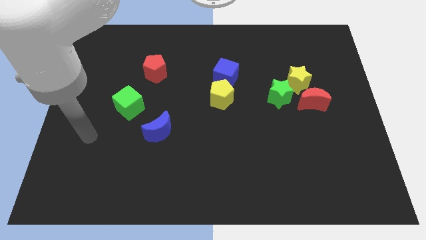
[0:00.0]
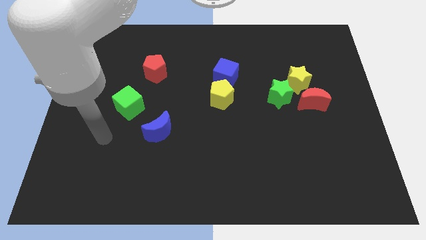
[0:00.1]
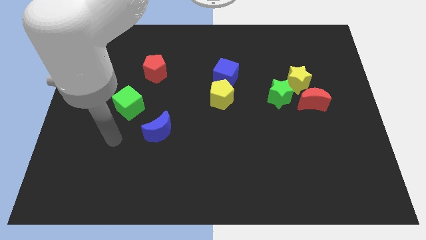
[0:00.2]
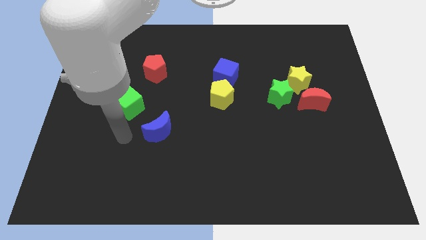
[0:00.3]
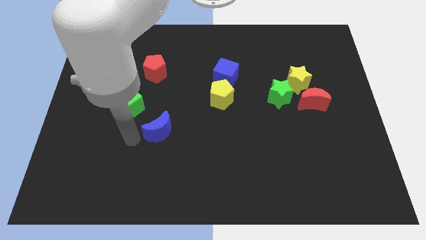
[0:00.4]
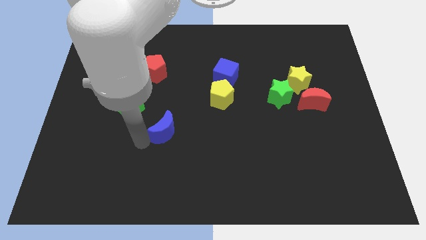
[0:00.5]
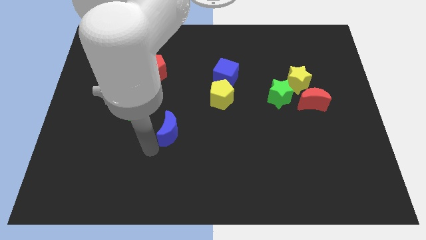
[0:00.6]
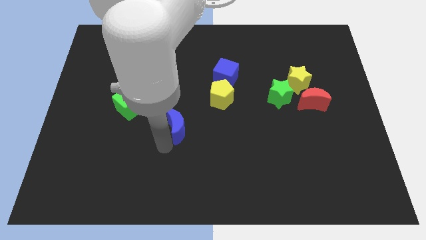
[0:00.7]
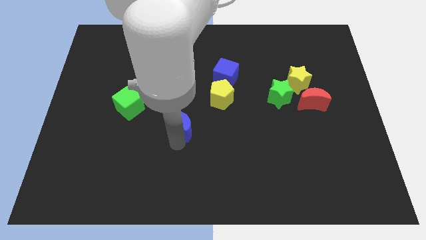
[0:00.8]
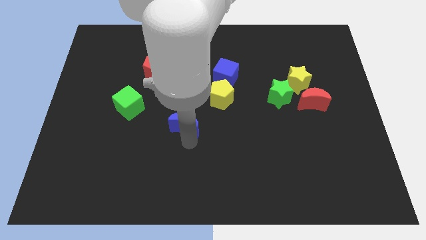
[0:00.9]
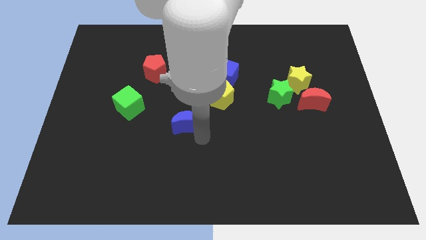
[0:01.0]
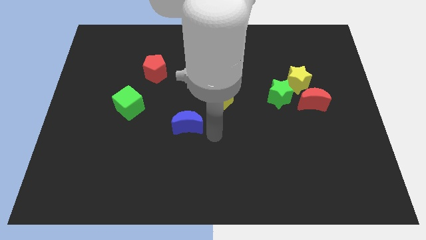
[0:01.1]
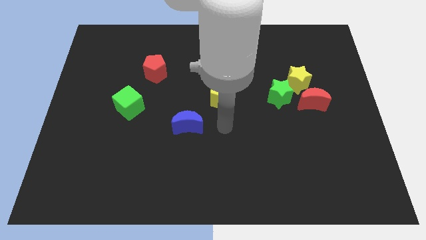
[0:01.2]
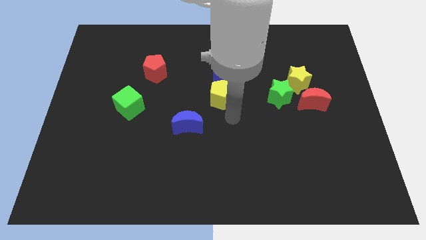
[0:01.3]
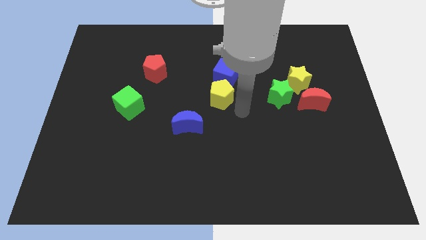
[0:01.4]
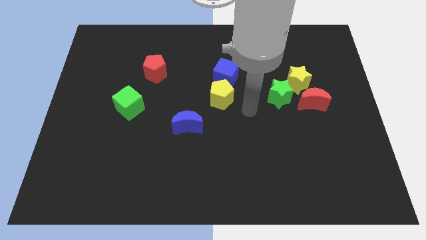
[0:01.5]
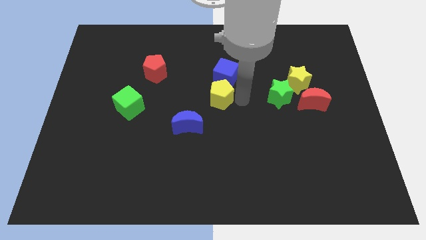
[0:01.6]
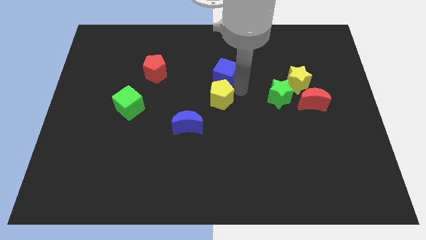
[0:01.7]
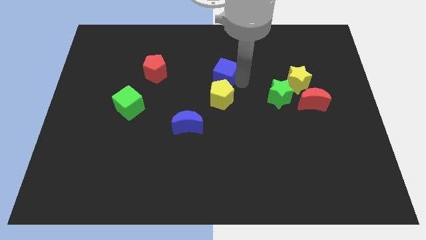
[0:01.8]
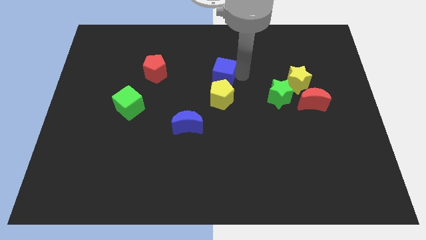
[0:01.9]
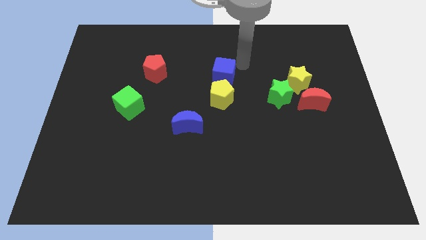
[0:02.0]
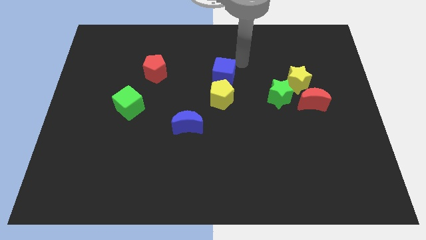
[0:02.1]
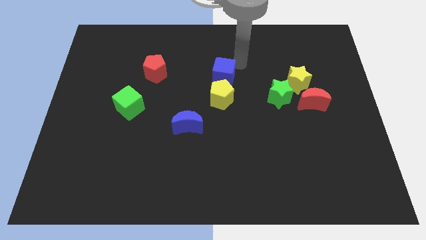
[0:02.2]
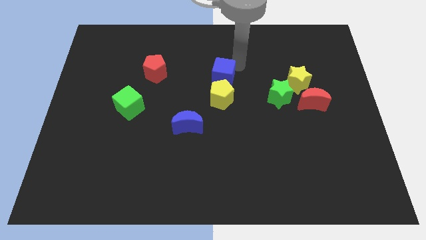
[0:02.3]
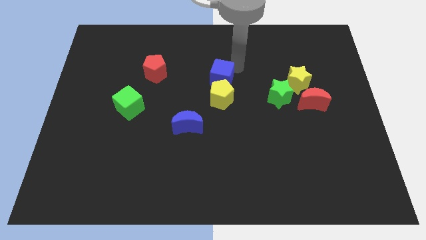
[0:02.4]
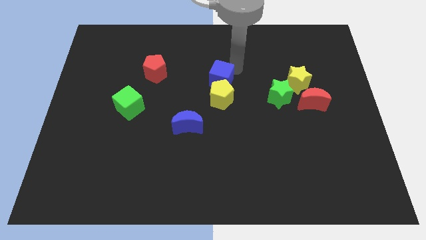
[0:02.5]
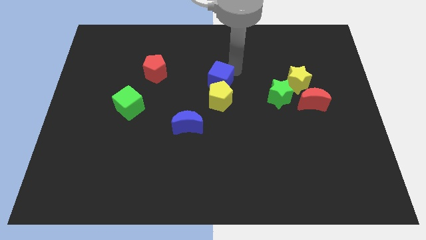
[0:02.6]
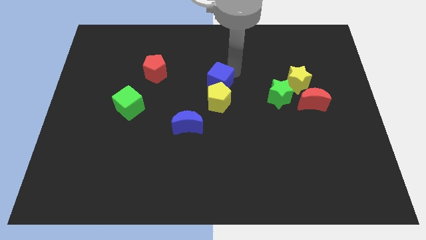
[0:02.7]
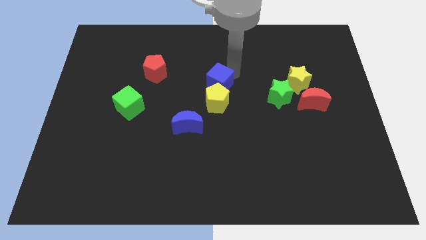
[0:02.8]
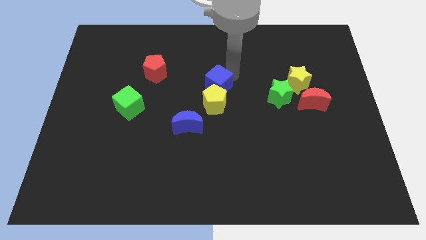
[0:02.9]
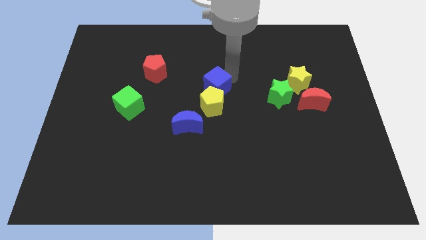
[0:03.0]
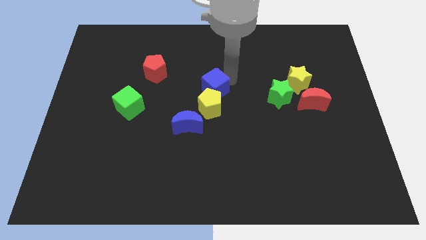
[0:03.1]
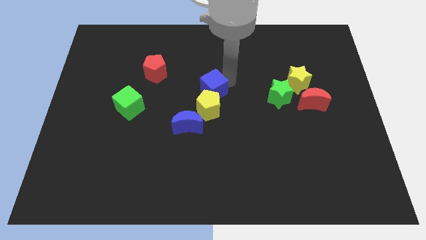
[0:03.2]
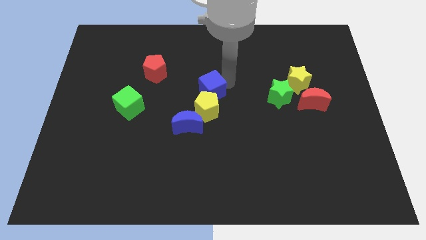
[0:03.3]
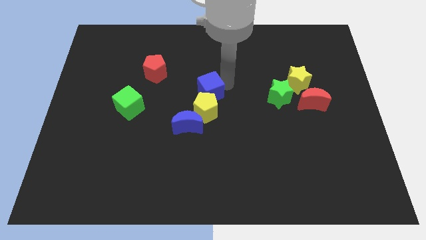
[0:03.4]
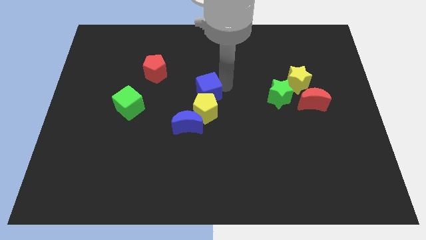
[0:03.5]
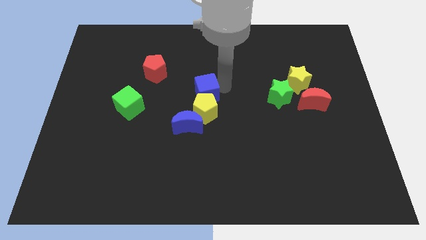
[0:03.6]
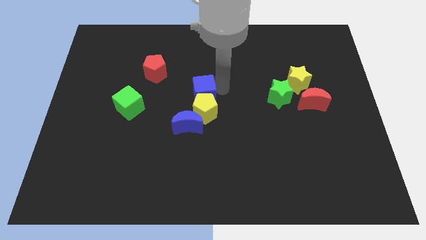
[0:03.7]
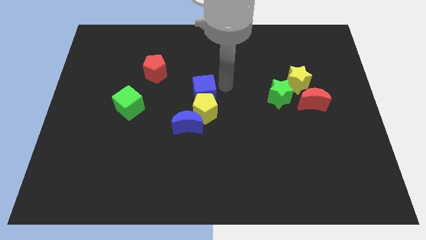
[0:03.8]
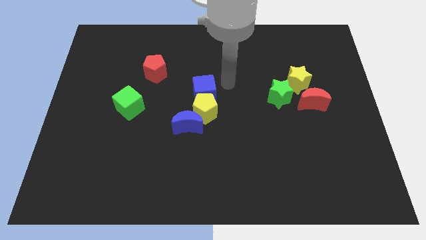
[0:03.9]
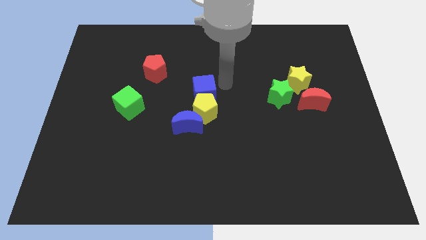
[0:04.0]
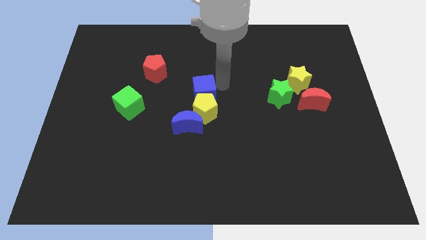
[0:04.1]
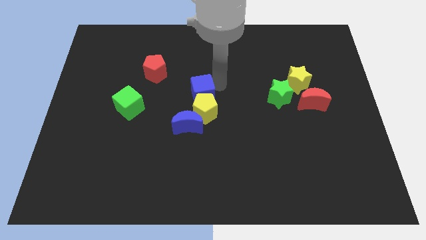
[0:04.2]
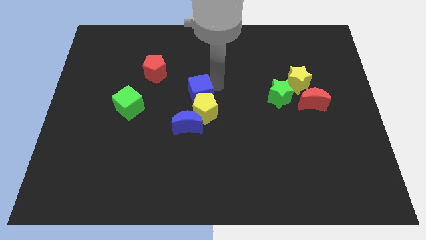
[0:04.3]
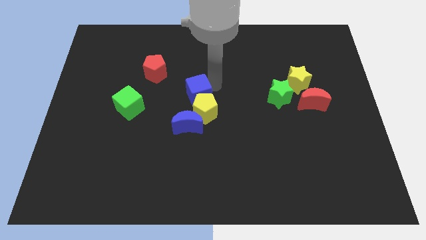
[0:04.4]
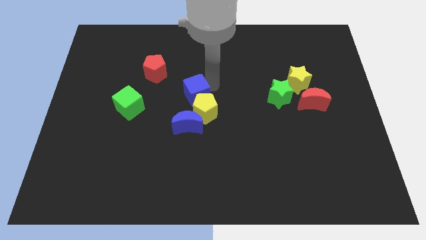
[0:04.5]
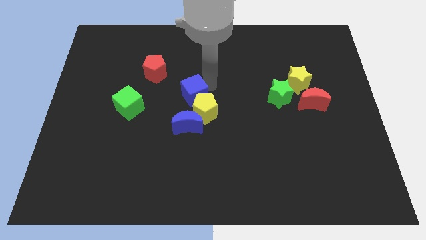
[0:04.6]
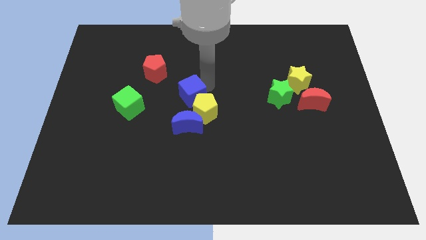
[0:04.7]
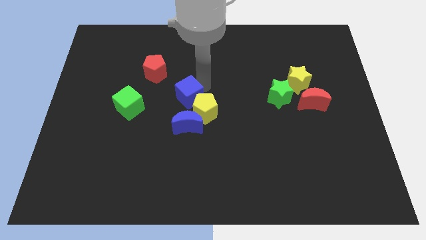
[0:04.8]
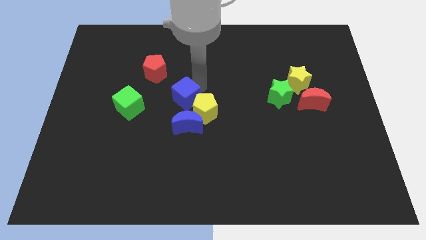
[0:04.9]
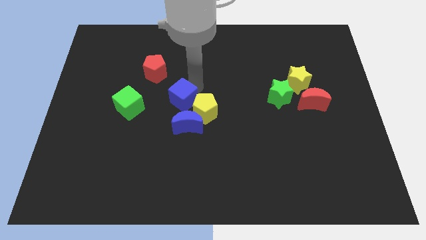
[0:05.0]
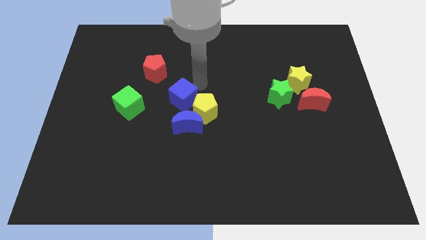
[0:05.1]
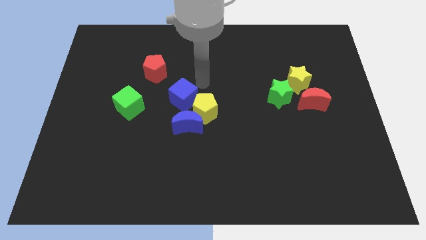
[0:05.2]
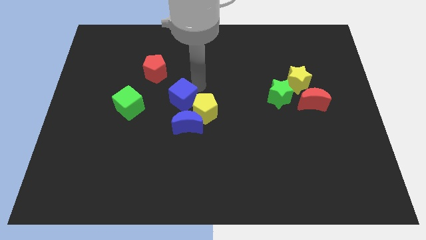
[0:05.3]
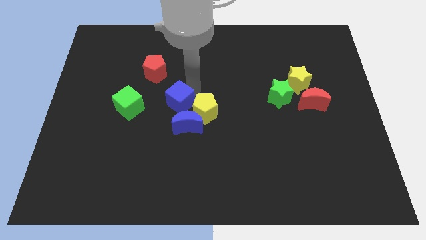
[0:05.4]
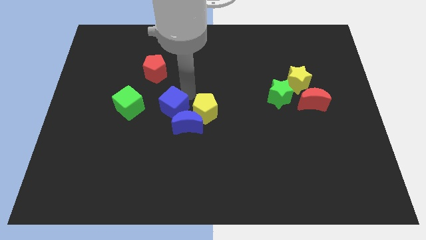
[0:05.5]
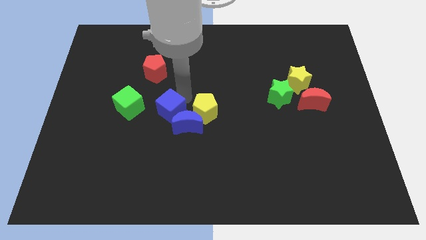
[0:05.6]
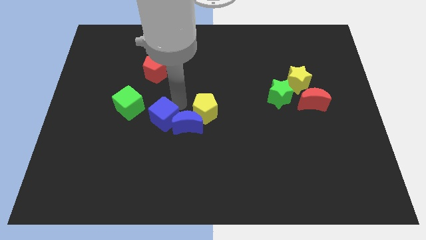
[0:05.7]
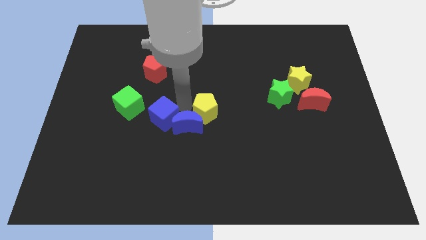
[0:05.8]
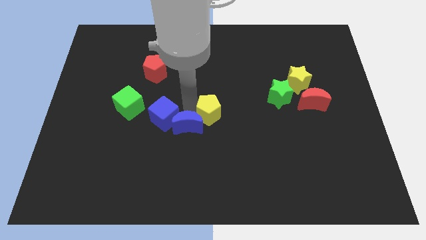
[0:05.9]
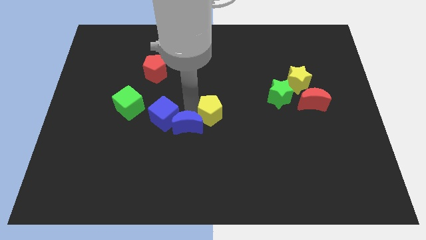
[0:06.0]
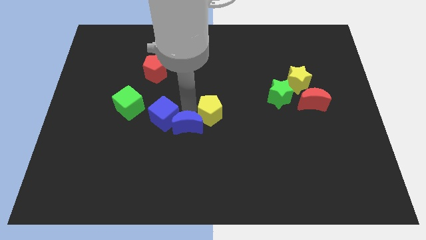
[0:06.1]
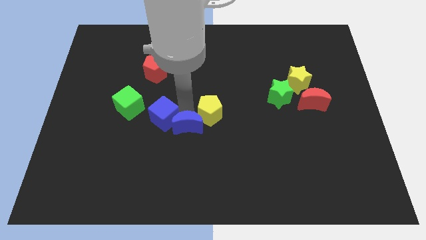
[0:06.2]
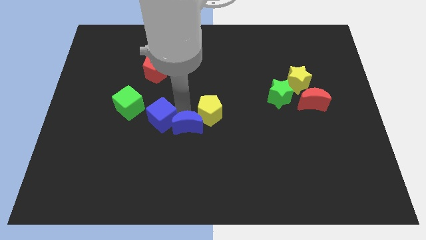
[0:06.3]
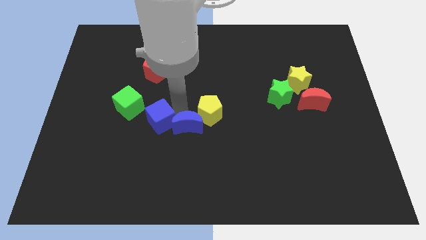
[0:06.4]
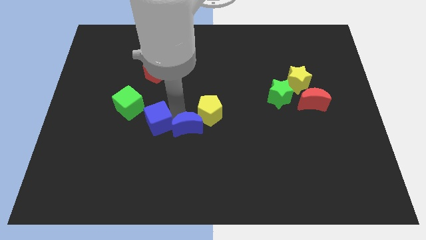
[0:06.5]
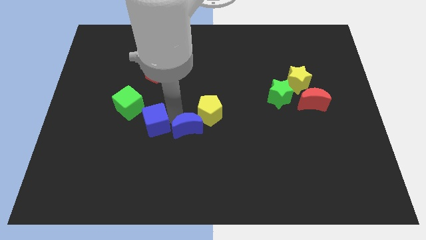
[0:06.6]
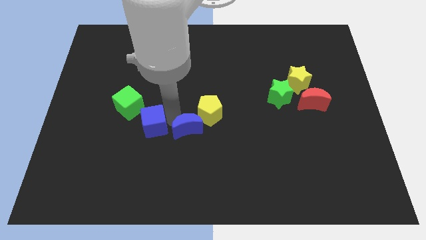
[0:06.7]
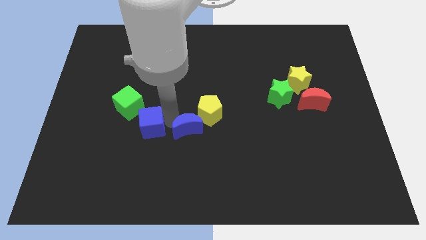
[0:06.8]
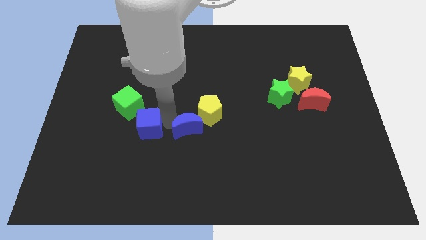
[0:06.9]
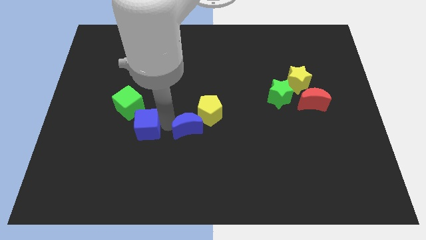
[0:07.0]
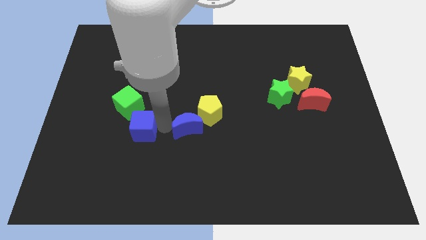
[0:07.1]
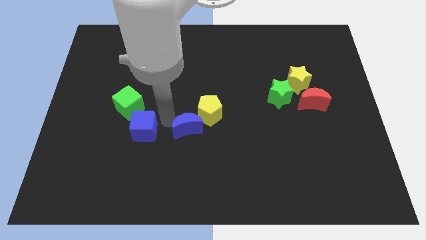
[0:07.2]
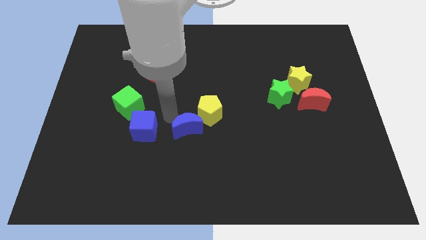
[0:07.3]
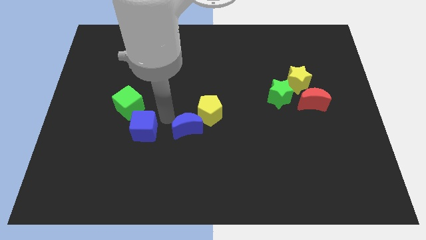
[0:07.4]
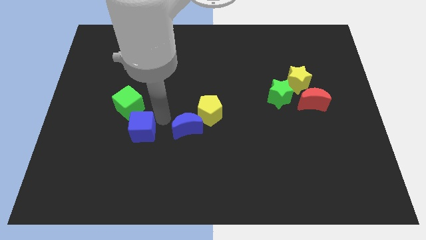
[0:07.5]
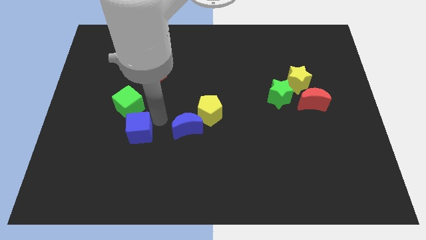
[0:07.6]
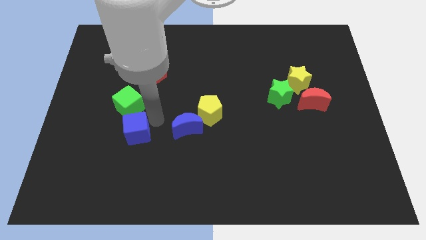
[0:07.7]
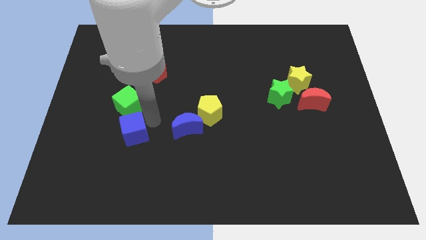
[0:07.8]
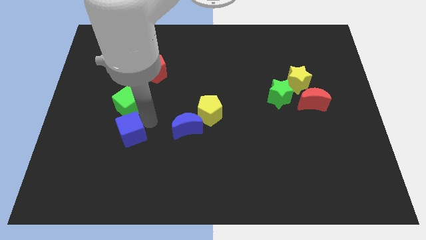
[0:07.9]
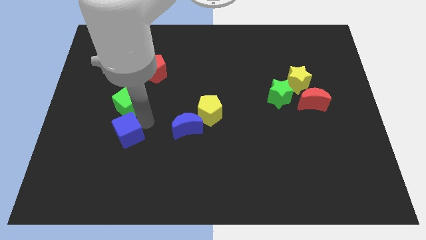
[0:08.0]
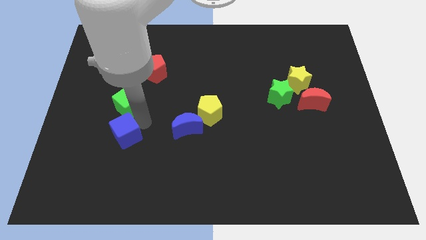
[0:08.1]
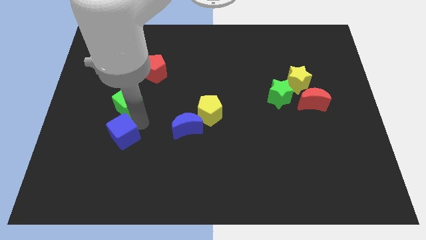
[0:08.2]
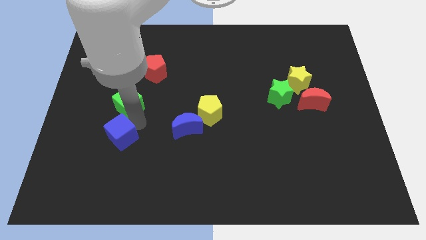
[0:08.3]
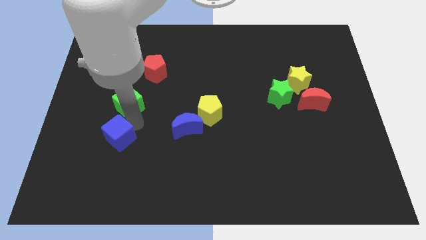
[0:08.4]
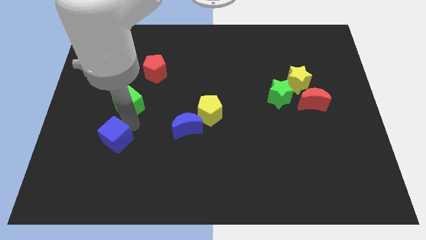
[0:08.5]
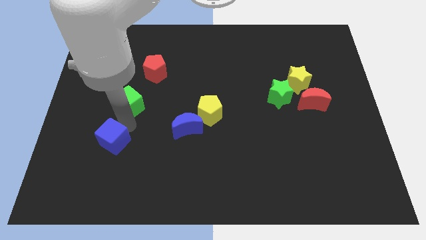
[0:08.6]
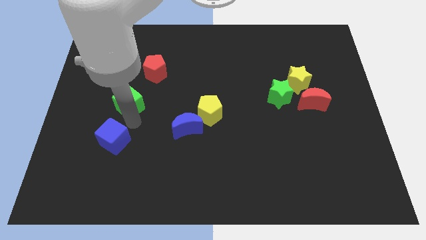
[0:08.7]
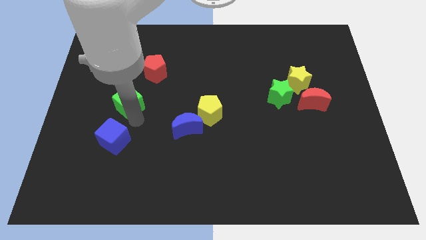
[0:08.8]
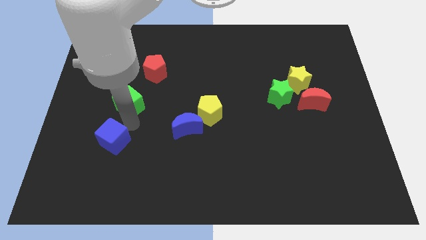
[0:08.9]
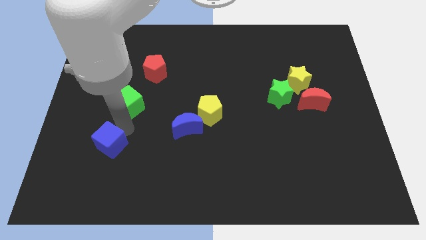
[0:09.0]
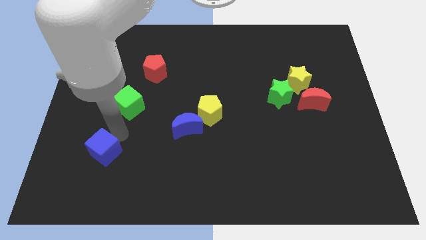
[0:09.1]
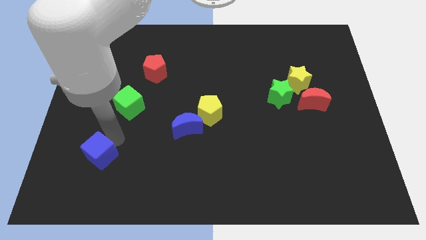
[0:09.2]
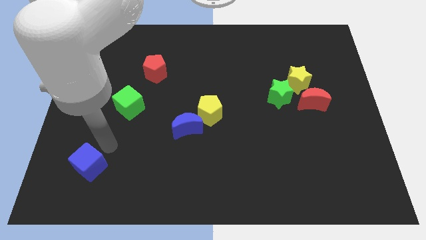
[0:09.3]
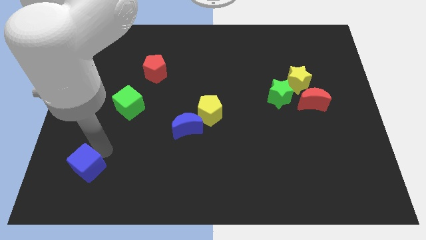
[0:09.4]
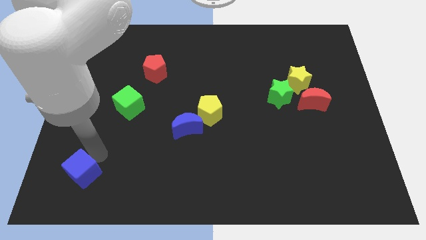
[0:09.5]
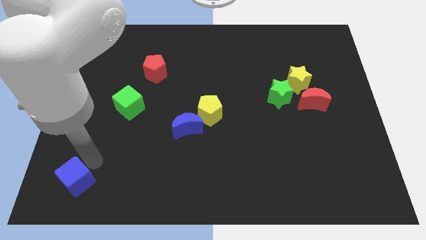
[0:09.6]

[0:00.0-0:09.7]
move the blue cube to the bottom left of the board
